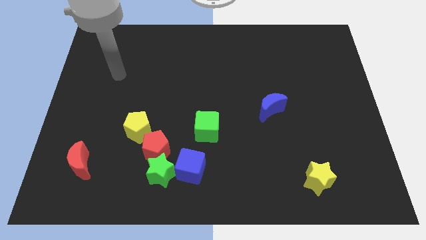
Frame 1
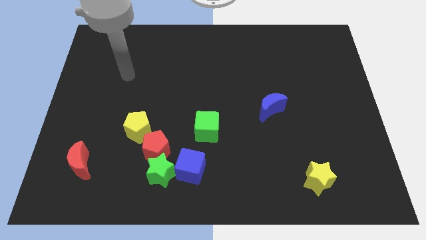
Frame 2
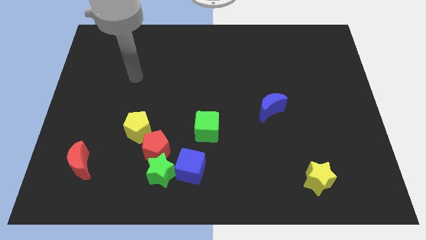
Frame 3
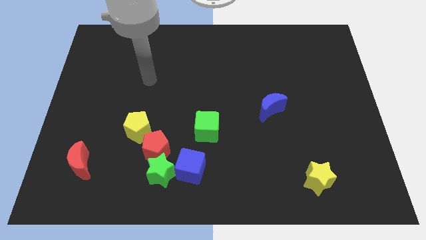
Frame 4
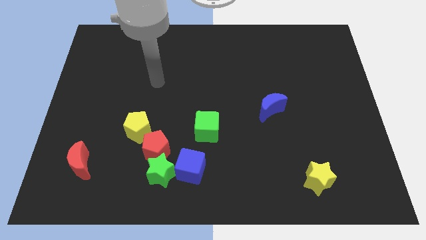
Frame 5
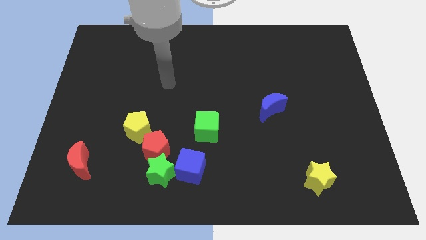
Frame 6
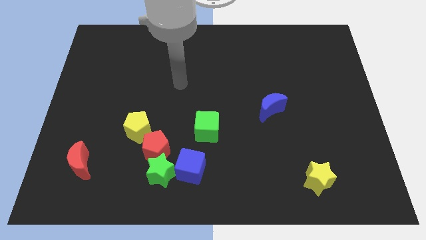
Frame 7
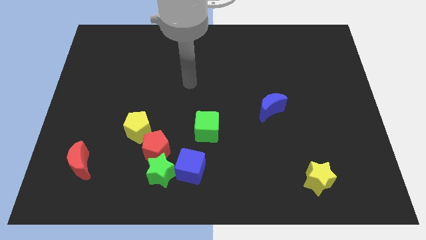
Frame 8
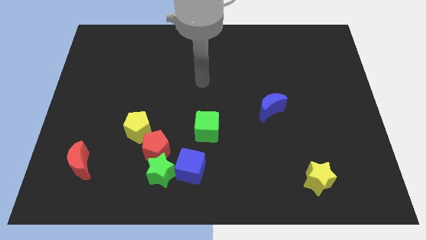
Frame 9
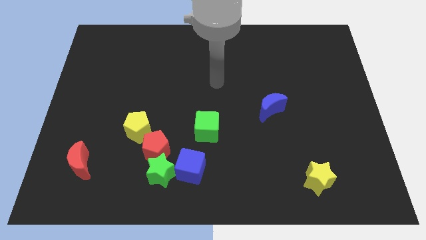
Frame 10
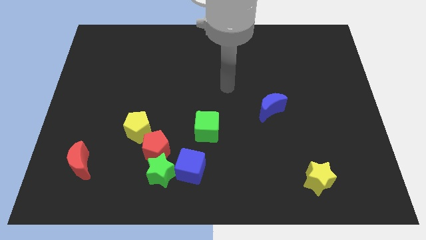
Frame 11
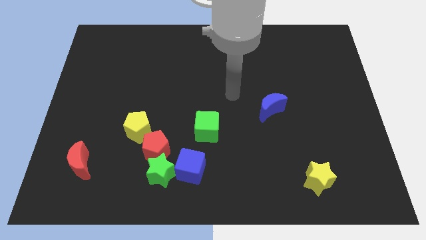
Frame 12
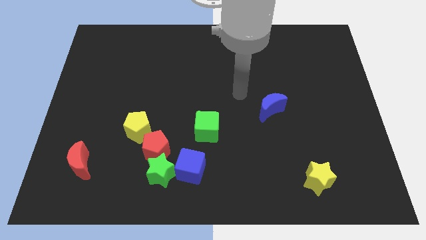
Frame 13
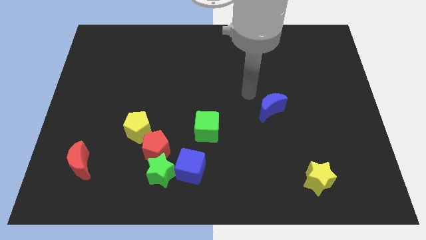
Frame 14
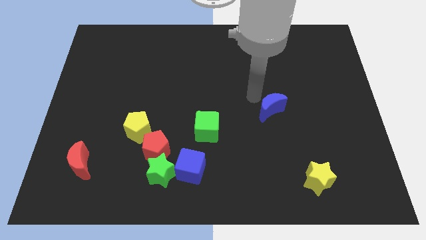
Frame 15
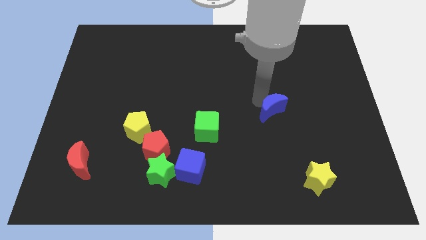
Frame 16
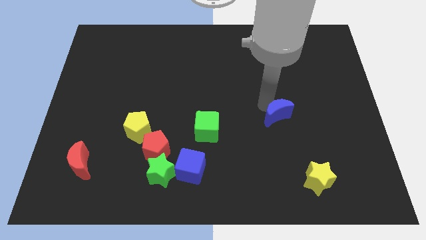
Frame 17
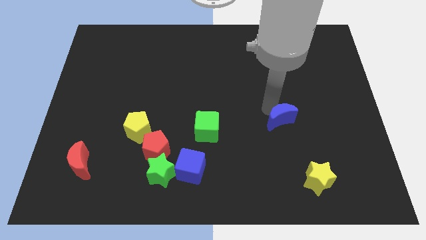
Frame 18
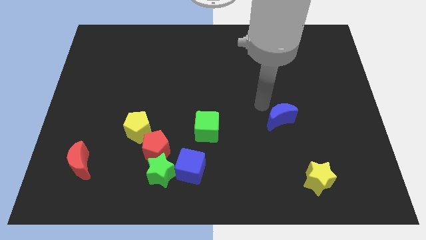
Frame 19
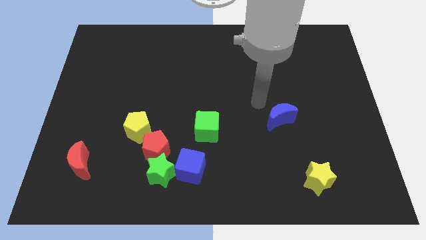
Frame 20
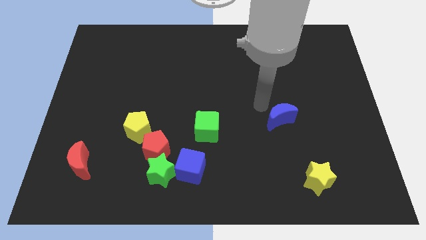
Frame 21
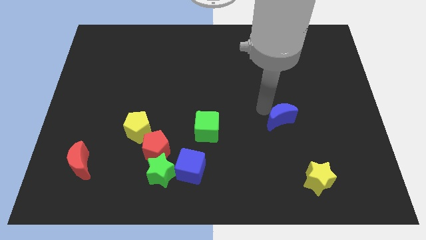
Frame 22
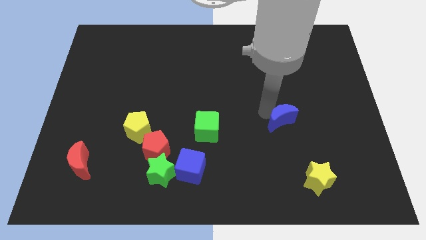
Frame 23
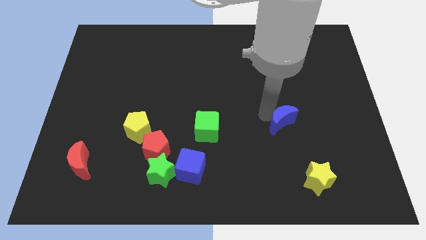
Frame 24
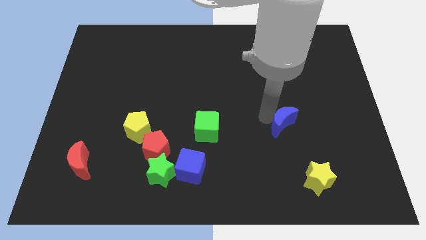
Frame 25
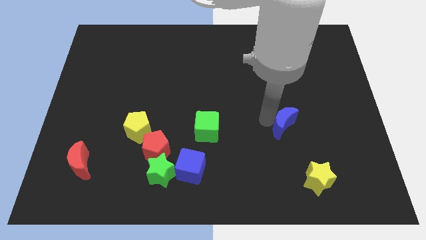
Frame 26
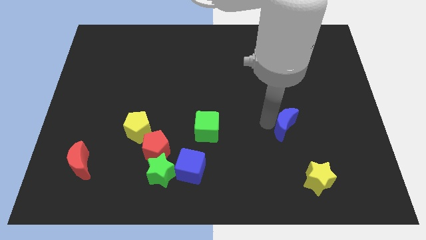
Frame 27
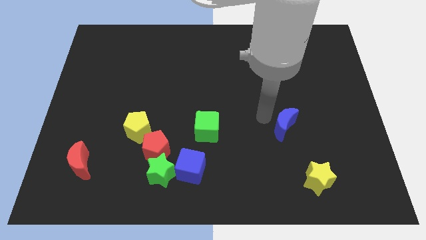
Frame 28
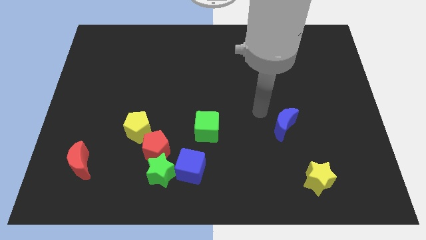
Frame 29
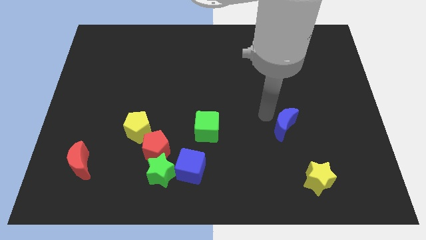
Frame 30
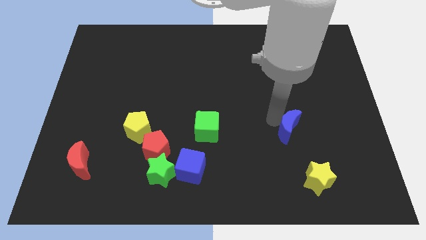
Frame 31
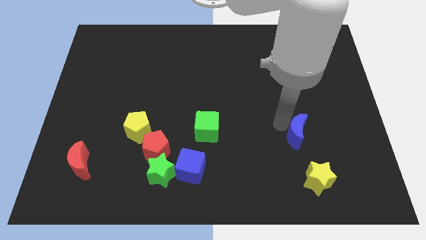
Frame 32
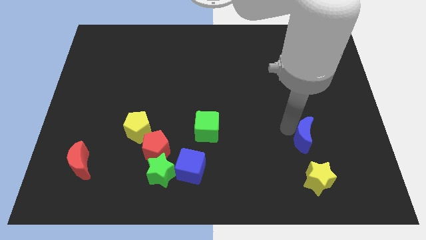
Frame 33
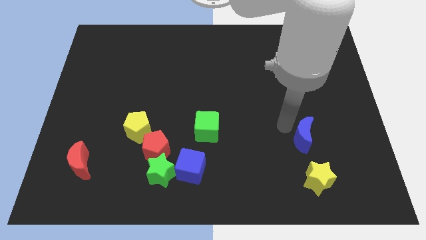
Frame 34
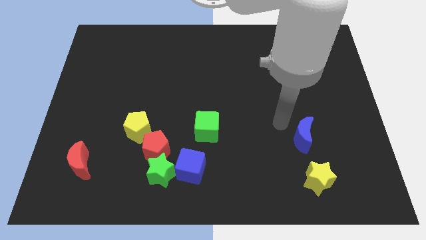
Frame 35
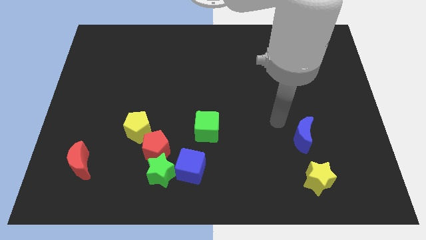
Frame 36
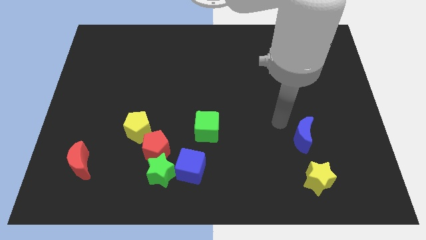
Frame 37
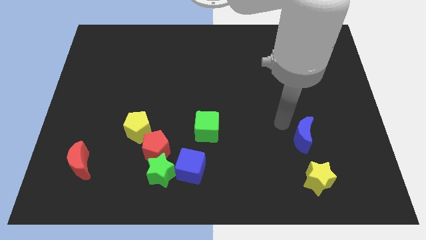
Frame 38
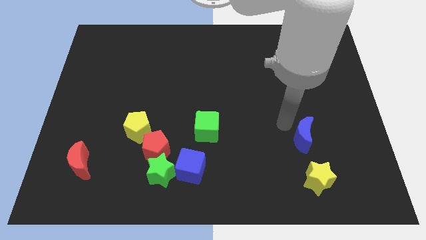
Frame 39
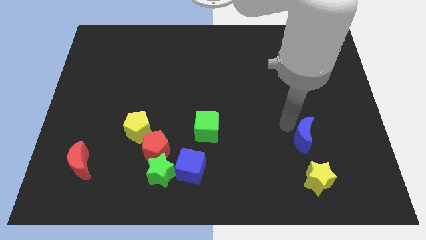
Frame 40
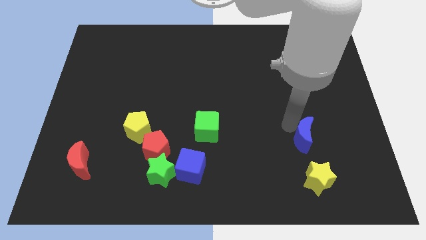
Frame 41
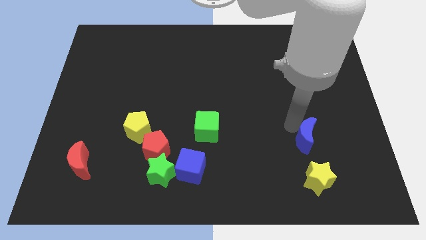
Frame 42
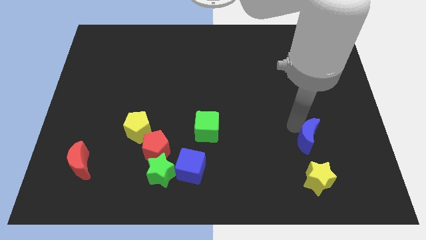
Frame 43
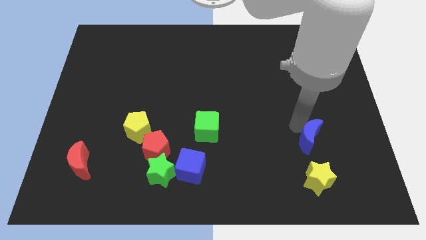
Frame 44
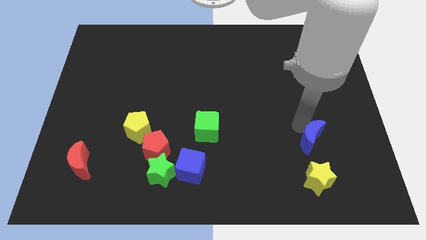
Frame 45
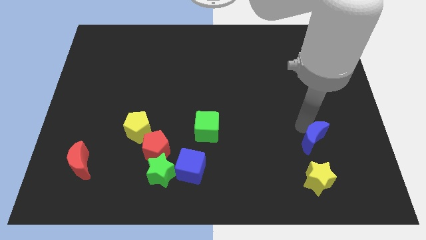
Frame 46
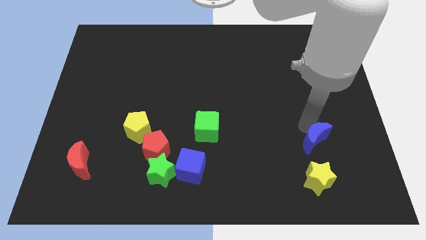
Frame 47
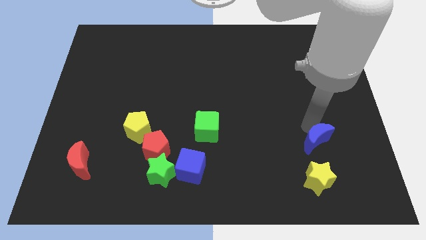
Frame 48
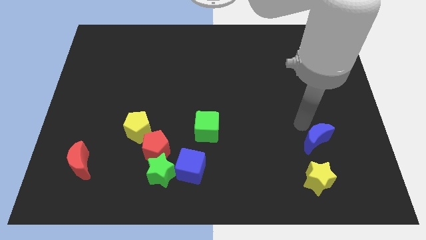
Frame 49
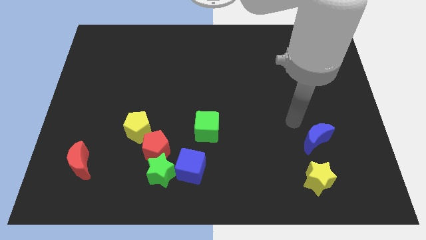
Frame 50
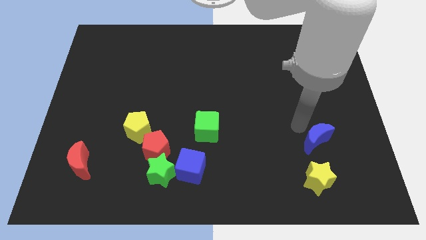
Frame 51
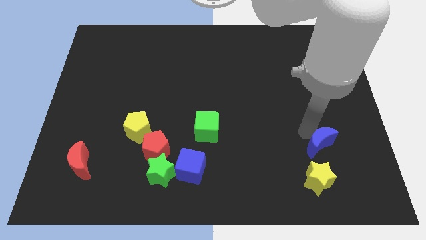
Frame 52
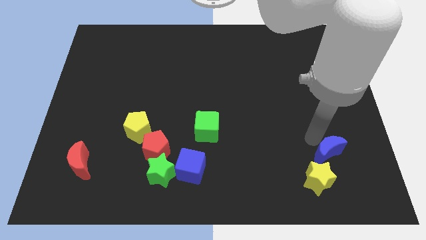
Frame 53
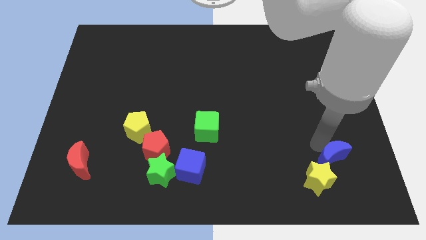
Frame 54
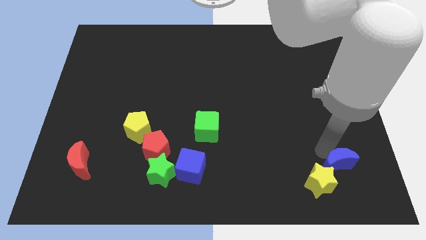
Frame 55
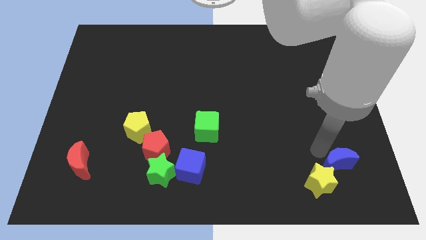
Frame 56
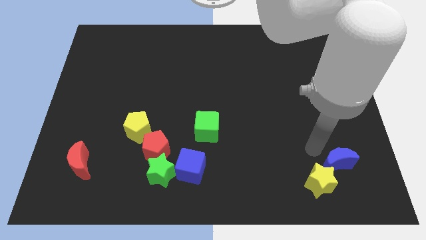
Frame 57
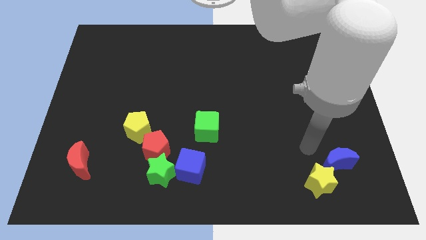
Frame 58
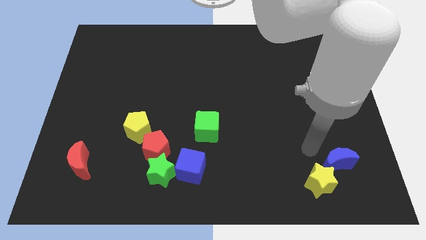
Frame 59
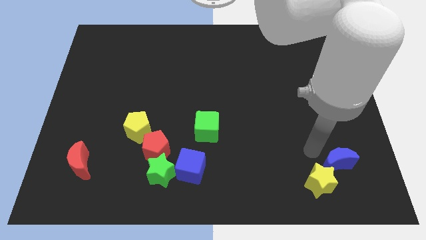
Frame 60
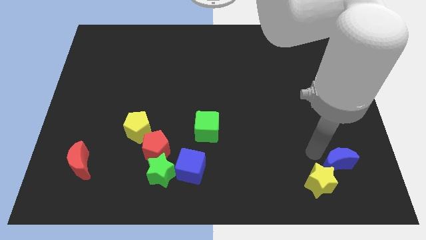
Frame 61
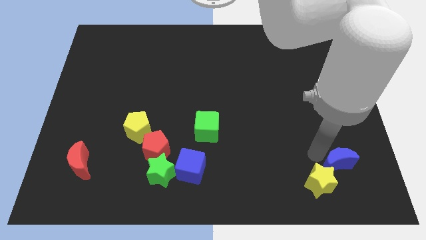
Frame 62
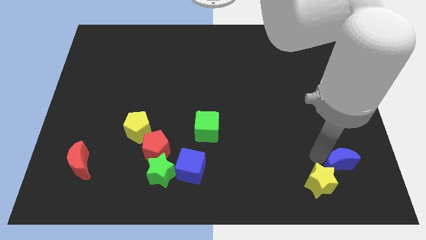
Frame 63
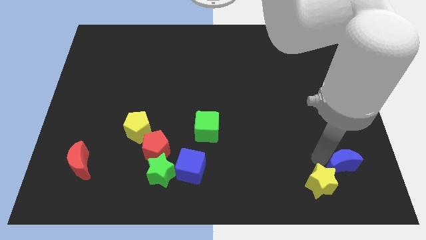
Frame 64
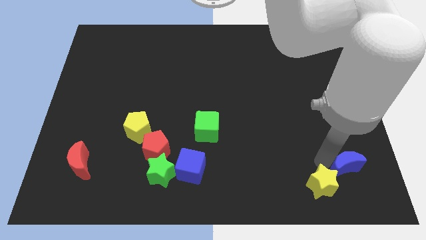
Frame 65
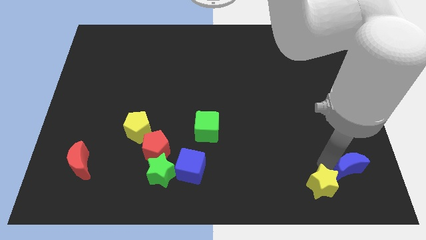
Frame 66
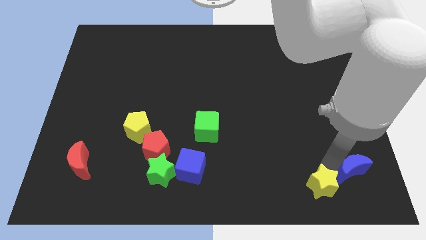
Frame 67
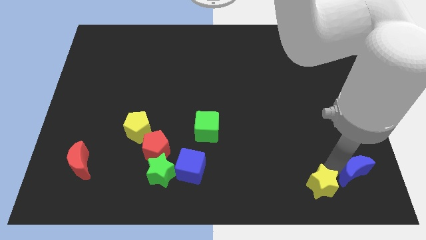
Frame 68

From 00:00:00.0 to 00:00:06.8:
put the blue moon to the lower right corner
